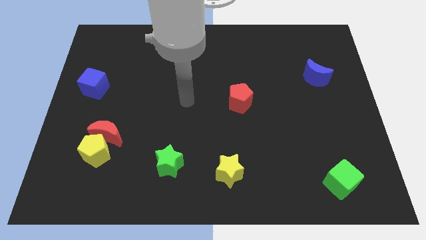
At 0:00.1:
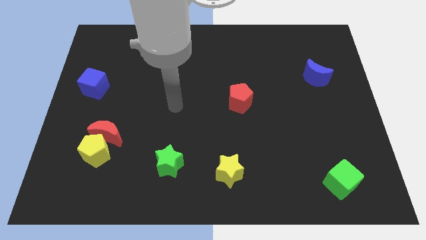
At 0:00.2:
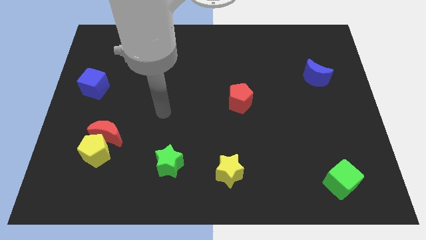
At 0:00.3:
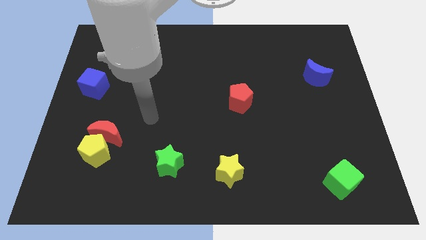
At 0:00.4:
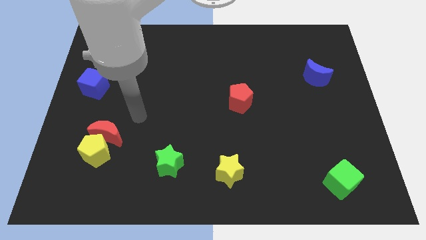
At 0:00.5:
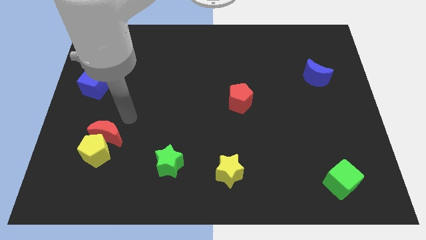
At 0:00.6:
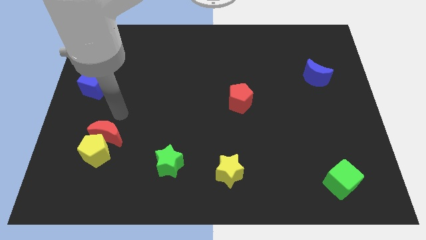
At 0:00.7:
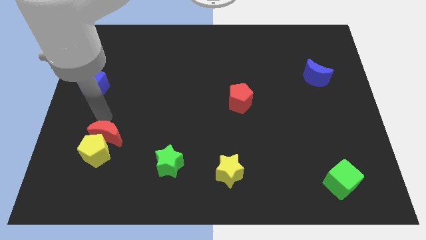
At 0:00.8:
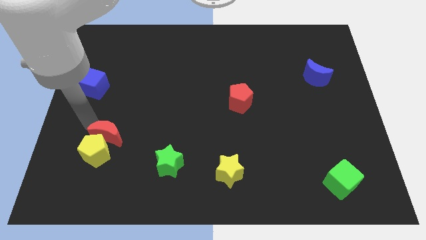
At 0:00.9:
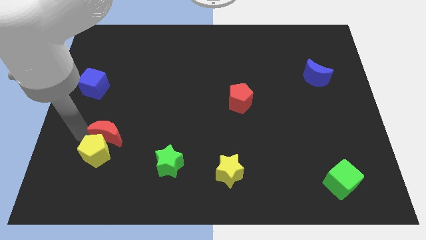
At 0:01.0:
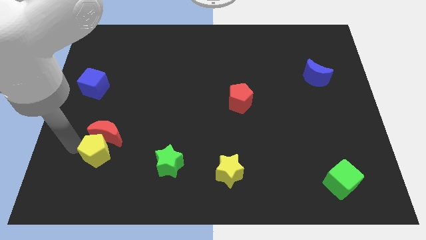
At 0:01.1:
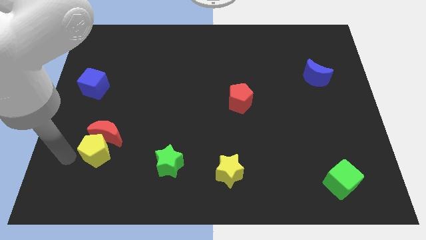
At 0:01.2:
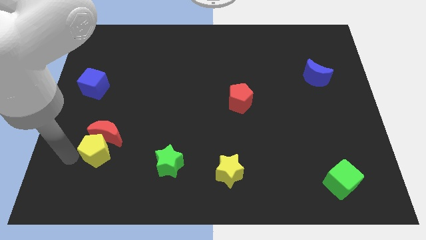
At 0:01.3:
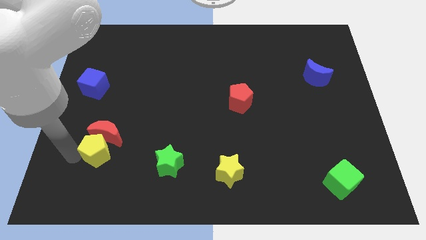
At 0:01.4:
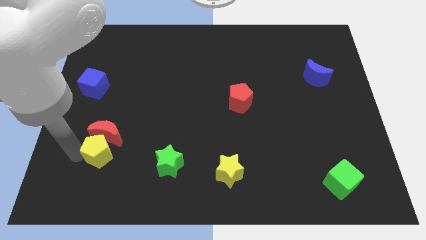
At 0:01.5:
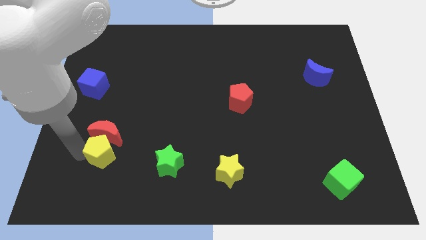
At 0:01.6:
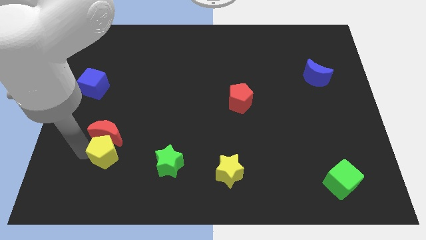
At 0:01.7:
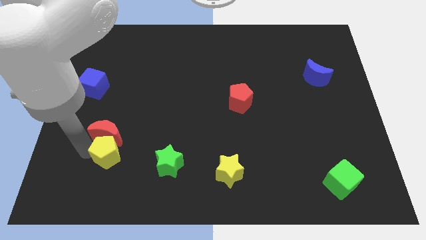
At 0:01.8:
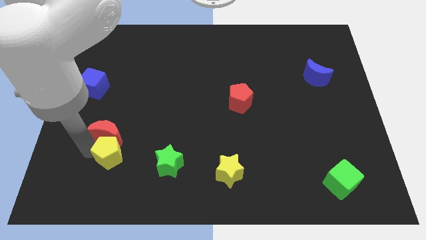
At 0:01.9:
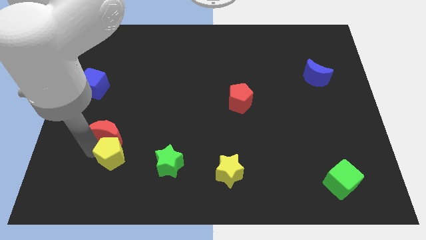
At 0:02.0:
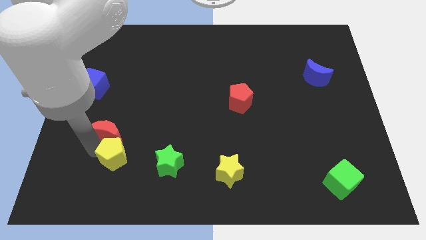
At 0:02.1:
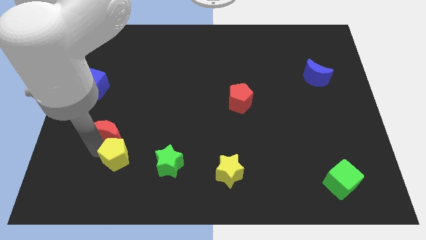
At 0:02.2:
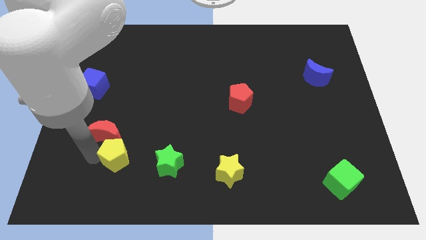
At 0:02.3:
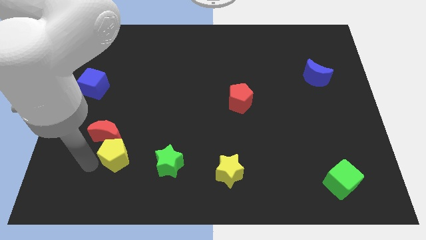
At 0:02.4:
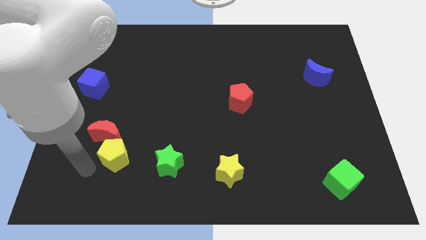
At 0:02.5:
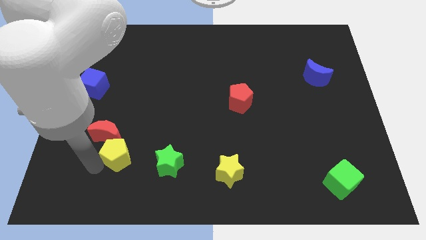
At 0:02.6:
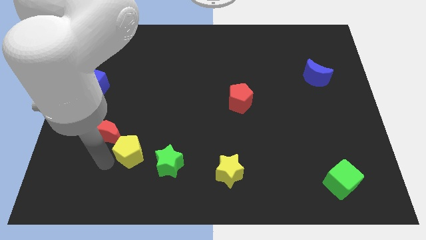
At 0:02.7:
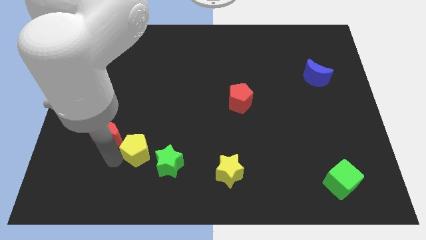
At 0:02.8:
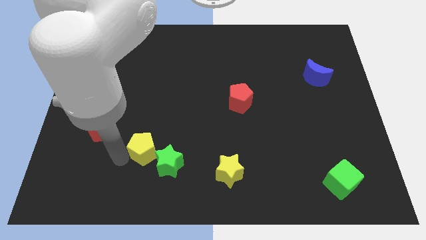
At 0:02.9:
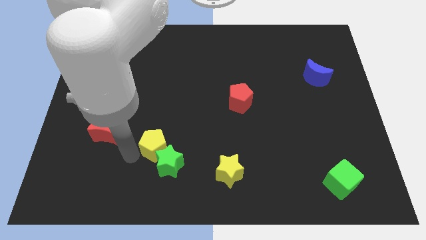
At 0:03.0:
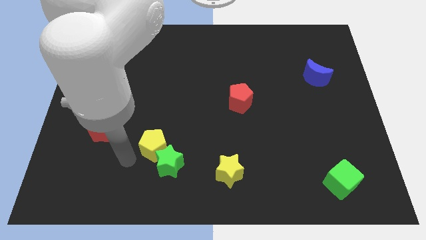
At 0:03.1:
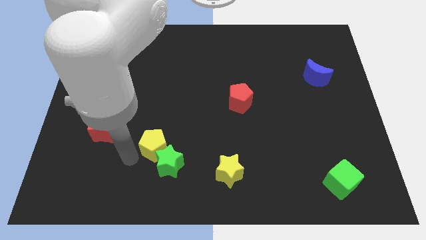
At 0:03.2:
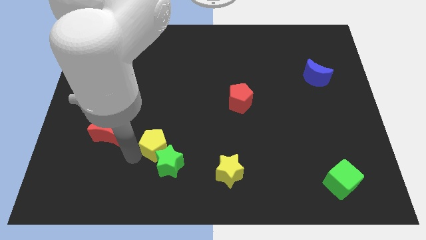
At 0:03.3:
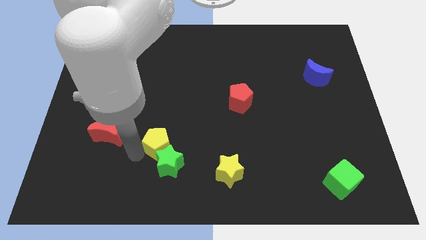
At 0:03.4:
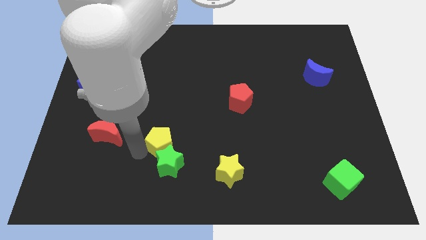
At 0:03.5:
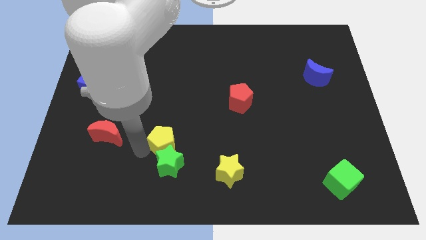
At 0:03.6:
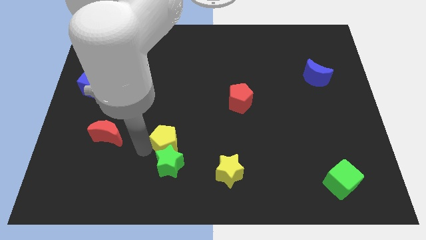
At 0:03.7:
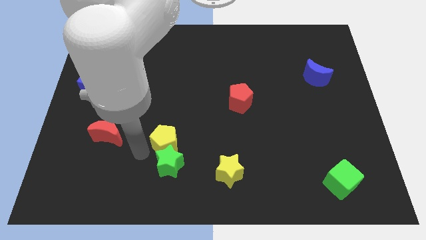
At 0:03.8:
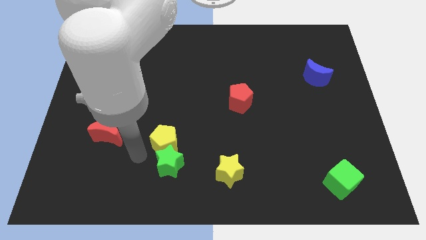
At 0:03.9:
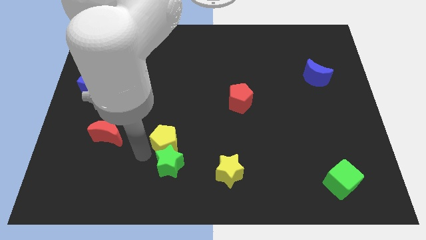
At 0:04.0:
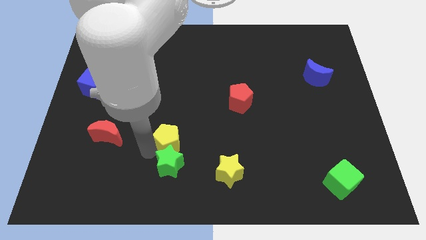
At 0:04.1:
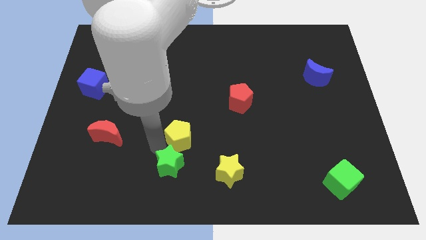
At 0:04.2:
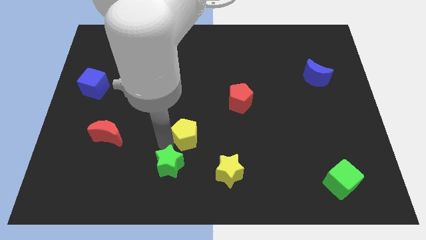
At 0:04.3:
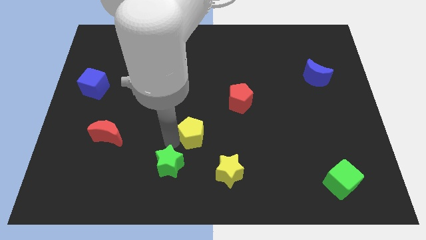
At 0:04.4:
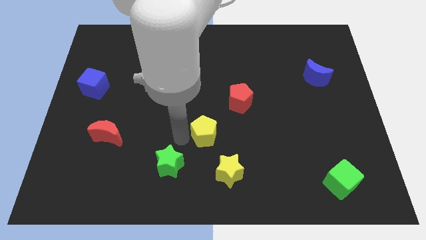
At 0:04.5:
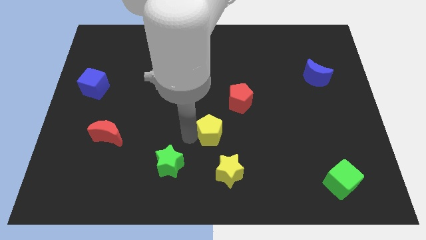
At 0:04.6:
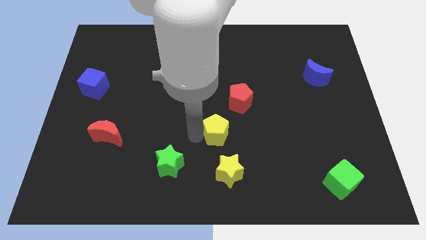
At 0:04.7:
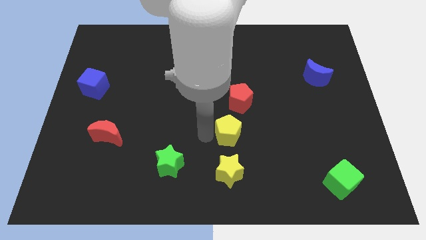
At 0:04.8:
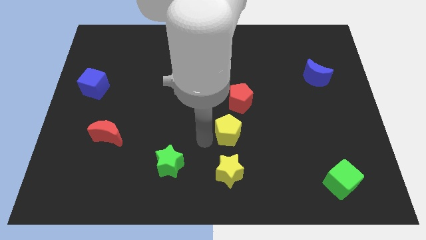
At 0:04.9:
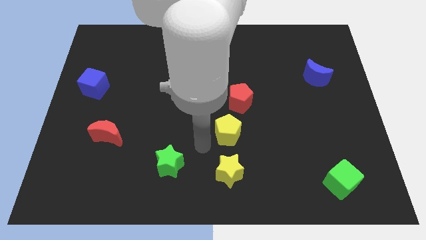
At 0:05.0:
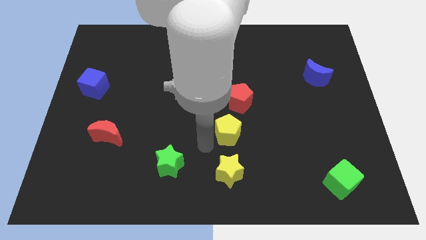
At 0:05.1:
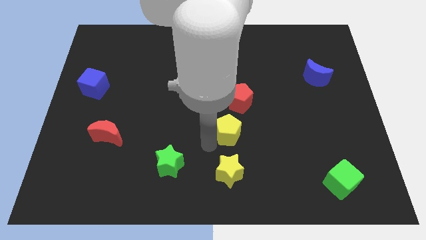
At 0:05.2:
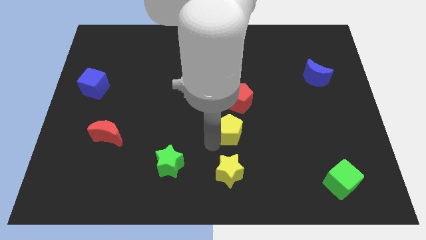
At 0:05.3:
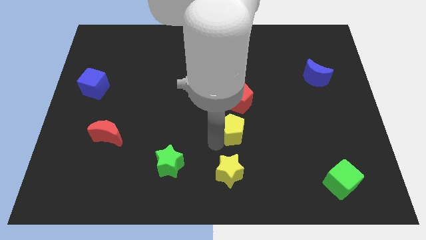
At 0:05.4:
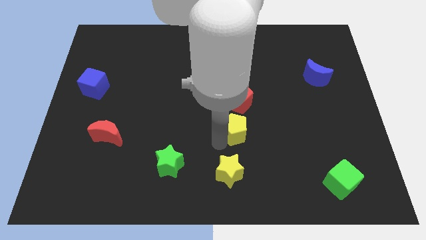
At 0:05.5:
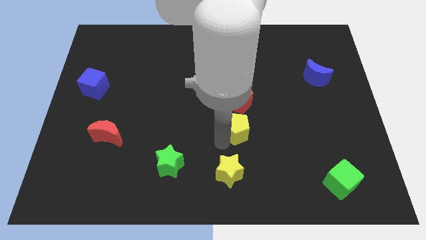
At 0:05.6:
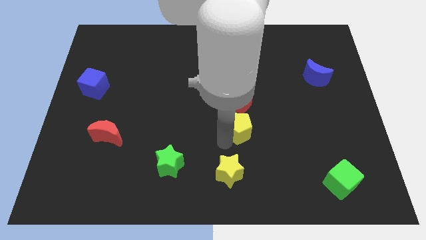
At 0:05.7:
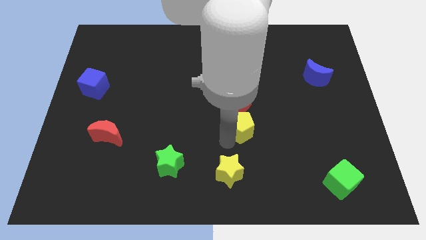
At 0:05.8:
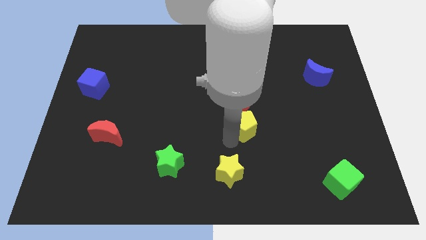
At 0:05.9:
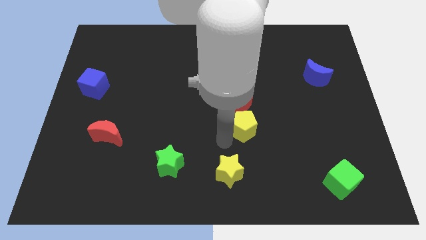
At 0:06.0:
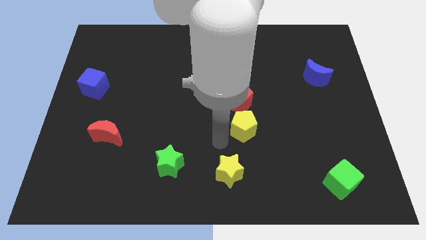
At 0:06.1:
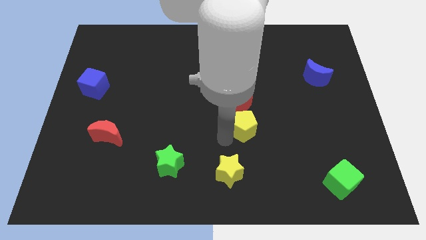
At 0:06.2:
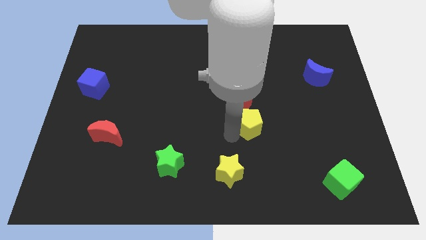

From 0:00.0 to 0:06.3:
slide the yellow pentagon to the bottom right side of the red pentagon

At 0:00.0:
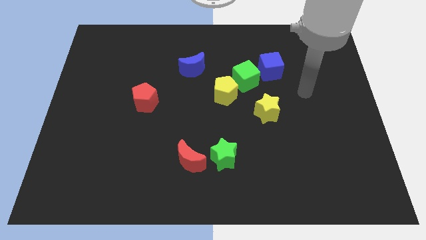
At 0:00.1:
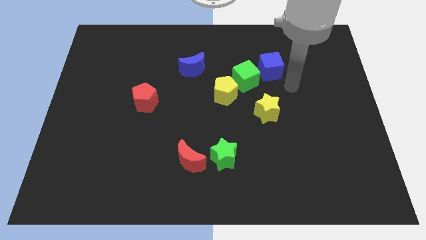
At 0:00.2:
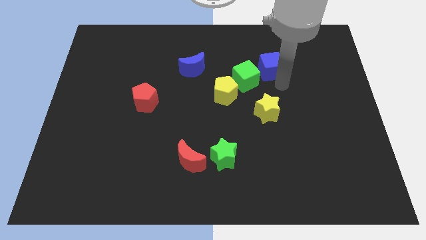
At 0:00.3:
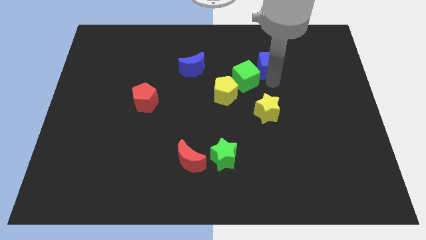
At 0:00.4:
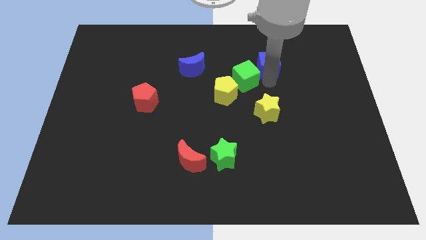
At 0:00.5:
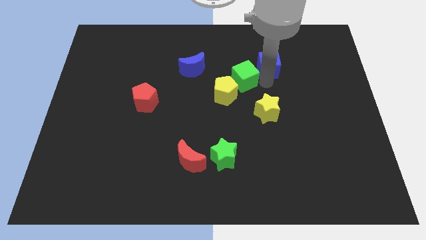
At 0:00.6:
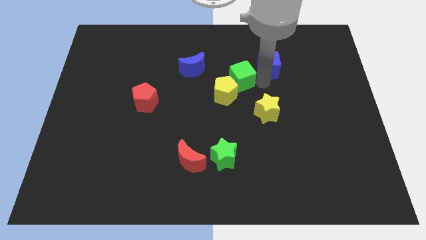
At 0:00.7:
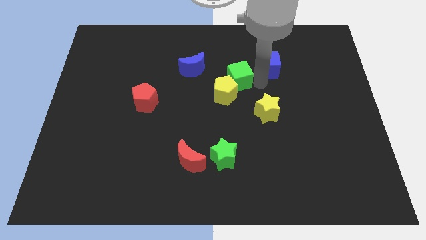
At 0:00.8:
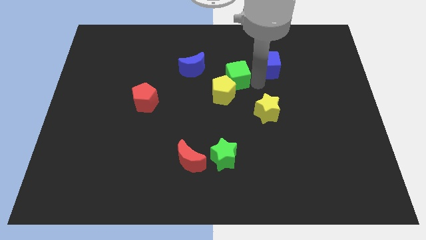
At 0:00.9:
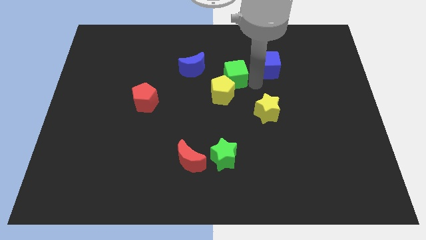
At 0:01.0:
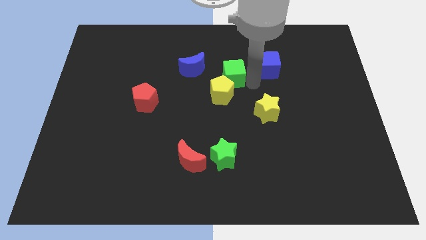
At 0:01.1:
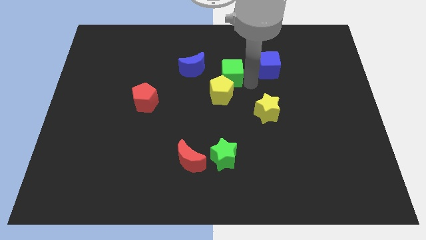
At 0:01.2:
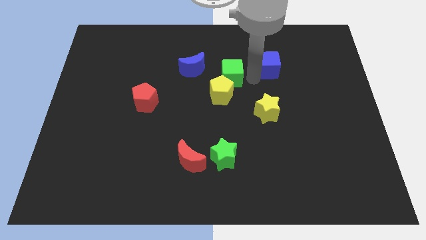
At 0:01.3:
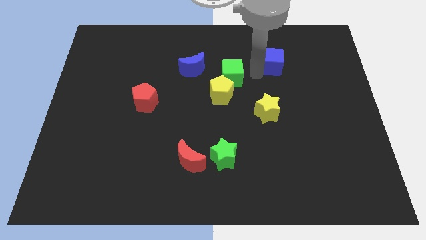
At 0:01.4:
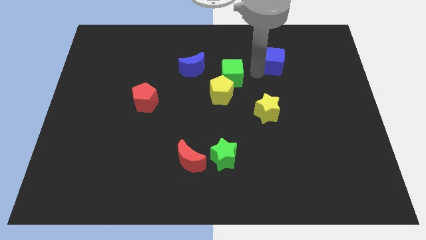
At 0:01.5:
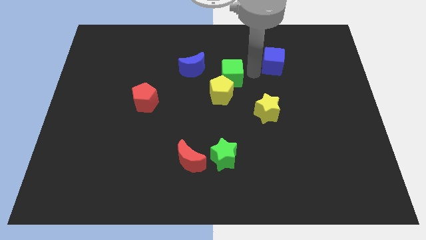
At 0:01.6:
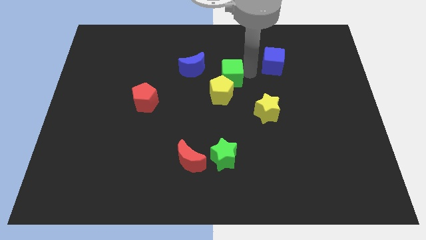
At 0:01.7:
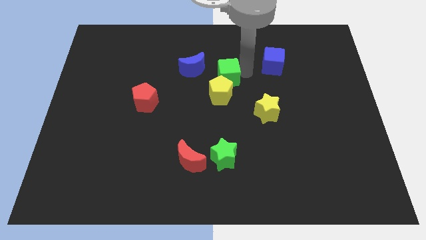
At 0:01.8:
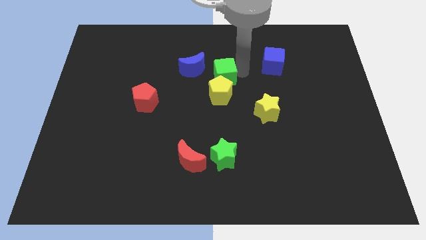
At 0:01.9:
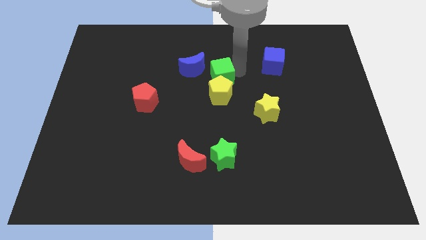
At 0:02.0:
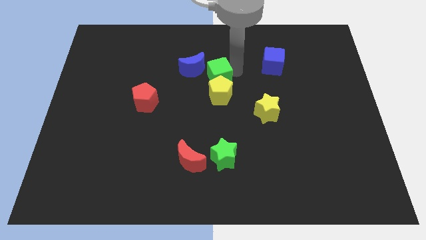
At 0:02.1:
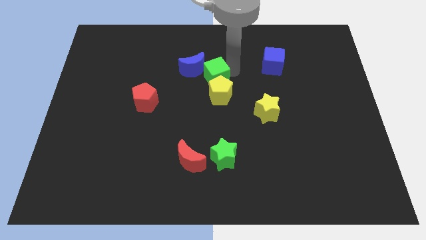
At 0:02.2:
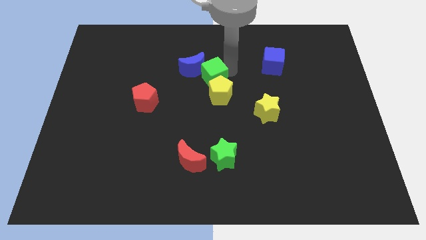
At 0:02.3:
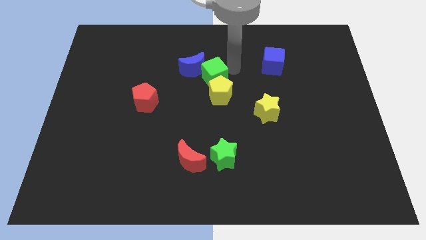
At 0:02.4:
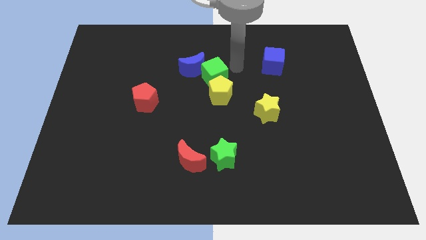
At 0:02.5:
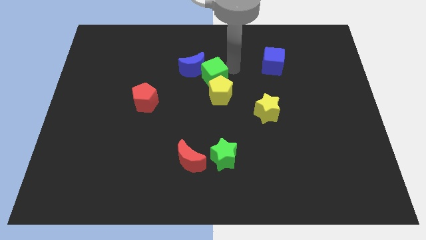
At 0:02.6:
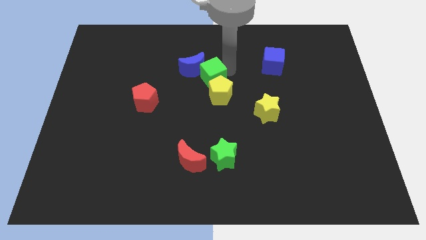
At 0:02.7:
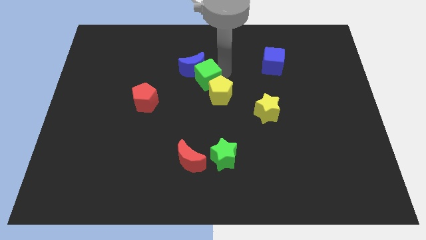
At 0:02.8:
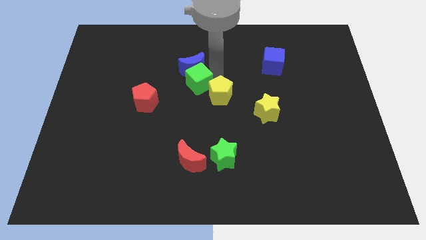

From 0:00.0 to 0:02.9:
push the green cube to the left side of the yellow pentagon
